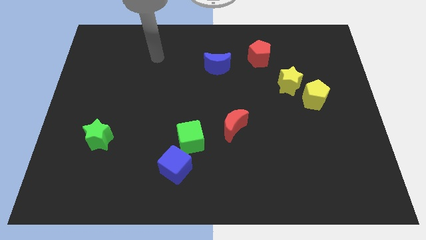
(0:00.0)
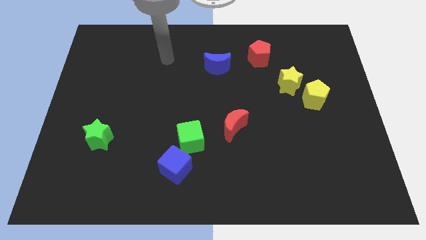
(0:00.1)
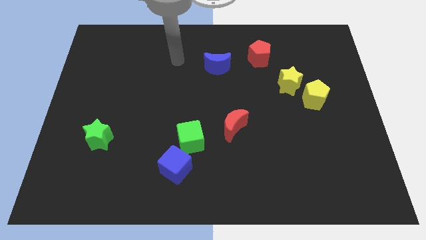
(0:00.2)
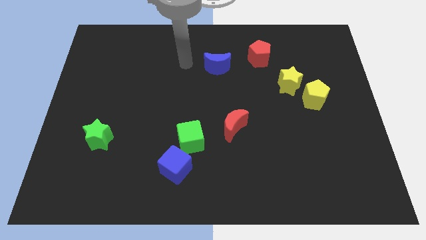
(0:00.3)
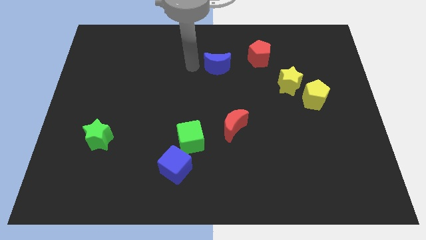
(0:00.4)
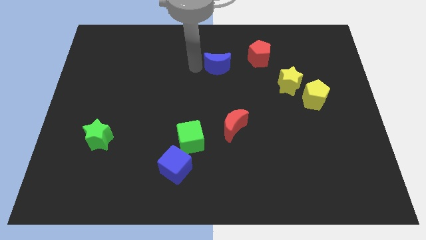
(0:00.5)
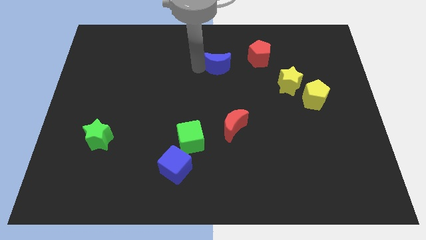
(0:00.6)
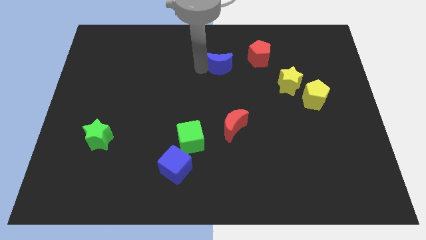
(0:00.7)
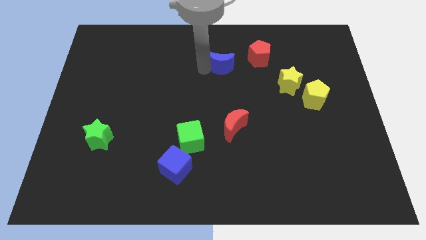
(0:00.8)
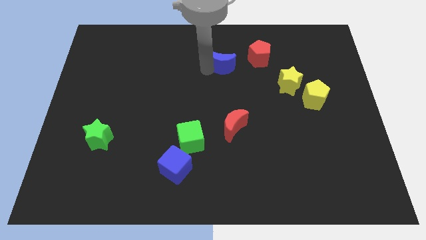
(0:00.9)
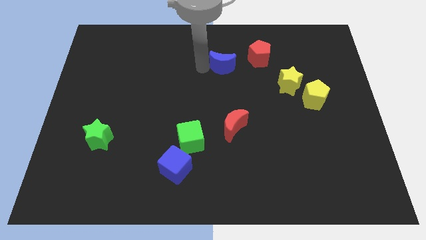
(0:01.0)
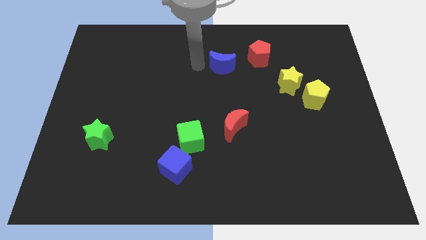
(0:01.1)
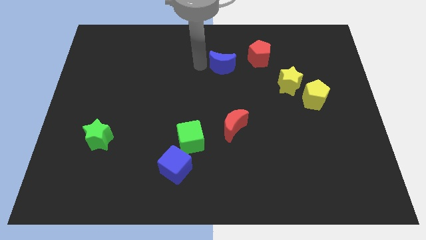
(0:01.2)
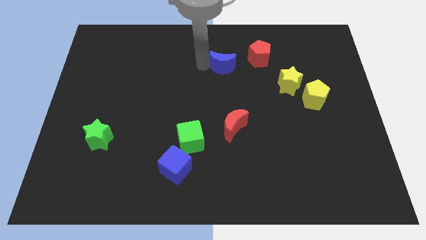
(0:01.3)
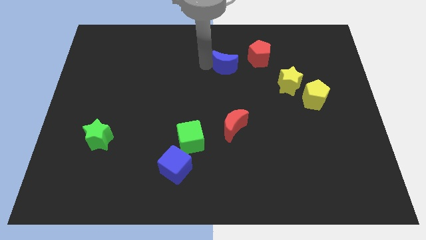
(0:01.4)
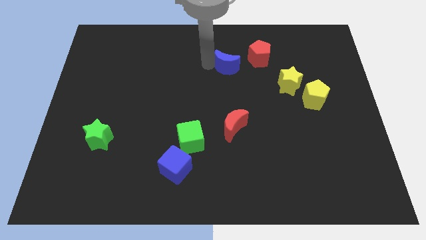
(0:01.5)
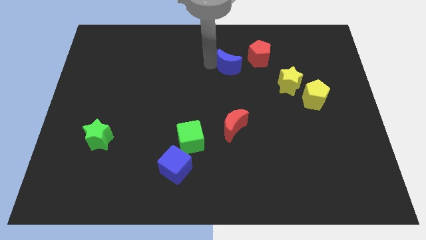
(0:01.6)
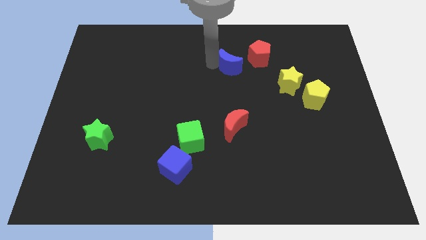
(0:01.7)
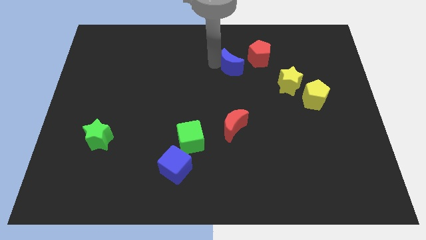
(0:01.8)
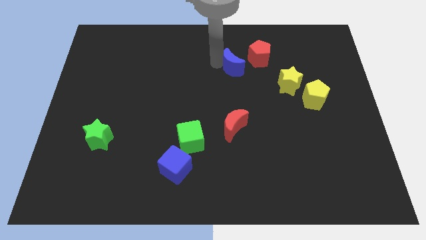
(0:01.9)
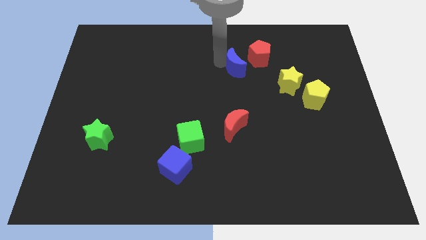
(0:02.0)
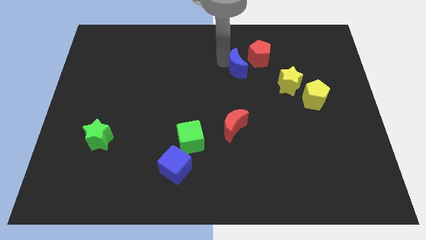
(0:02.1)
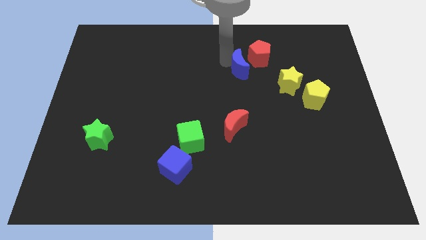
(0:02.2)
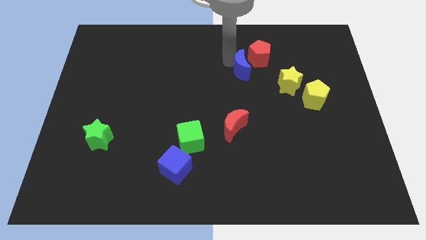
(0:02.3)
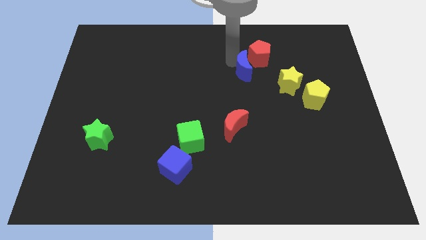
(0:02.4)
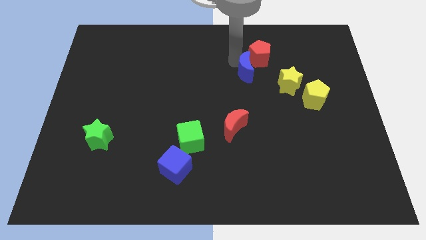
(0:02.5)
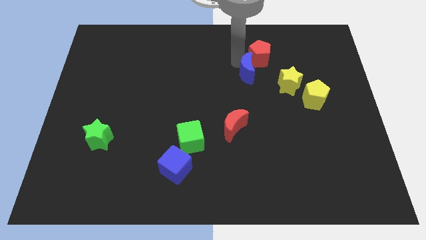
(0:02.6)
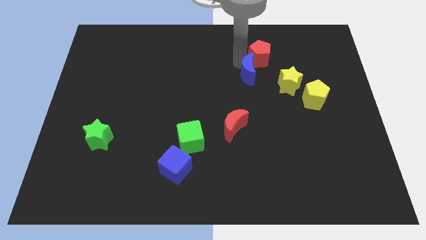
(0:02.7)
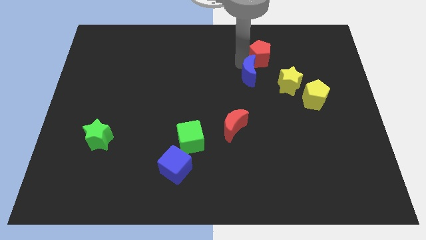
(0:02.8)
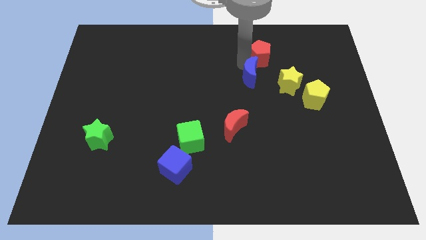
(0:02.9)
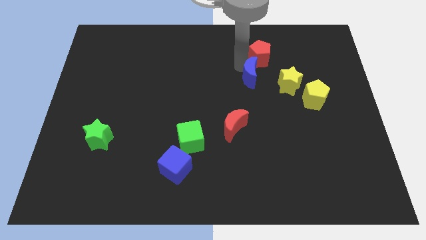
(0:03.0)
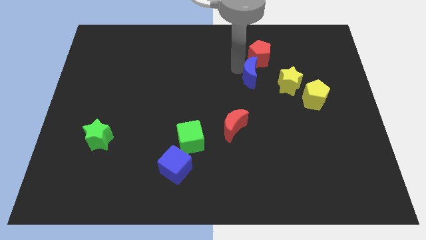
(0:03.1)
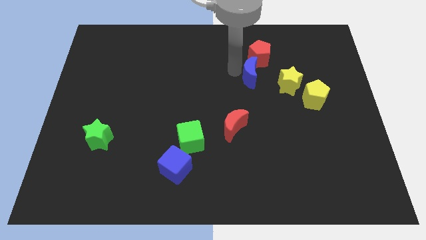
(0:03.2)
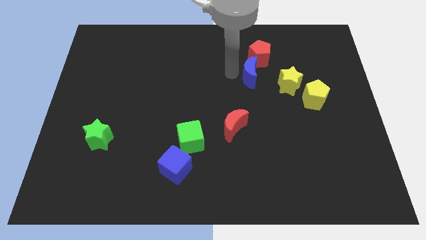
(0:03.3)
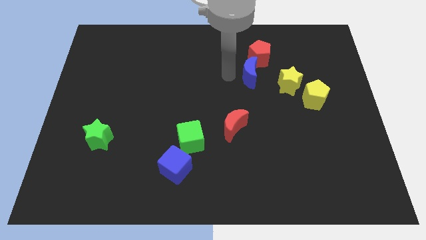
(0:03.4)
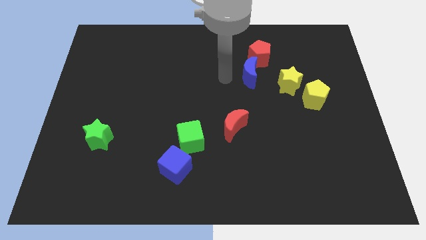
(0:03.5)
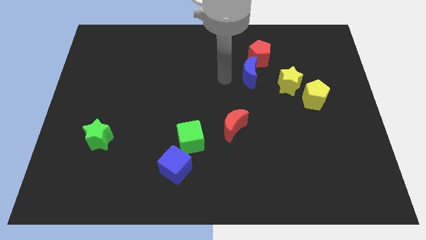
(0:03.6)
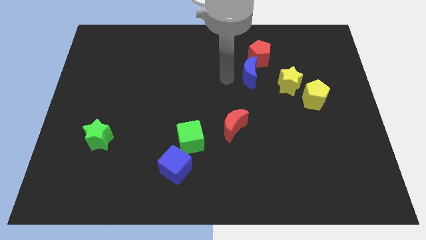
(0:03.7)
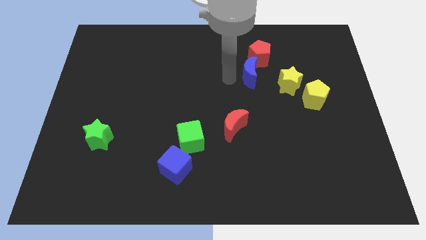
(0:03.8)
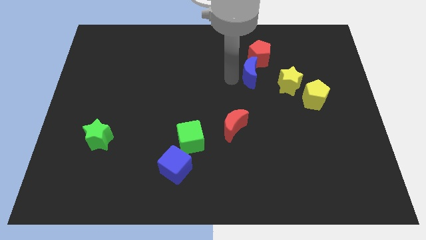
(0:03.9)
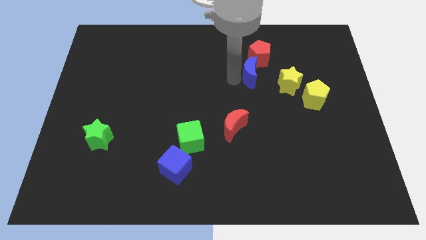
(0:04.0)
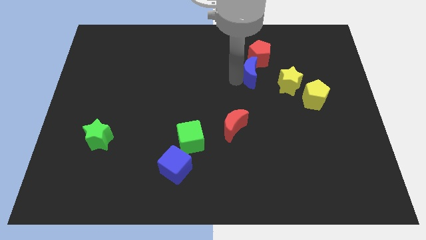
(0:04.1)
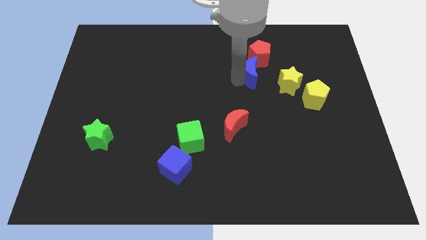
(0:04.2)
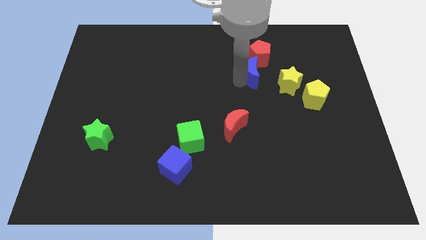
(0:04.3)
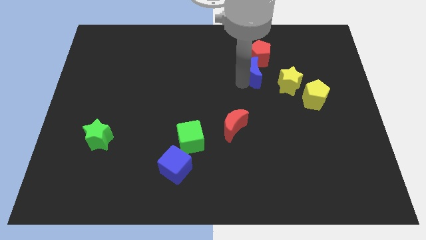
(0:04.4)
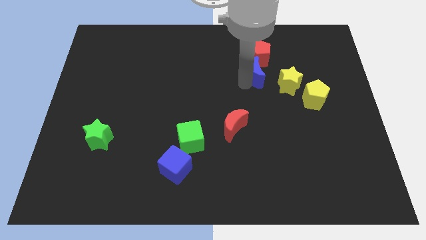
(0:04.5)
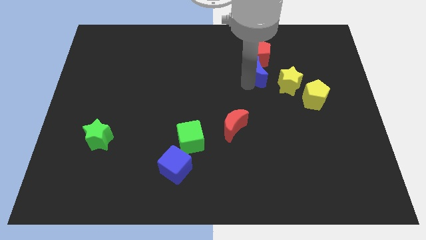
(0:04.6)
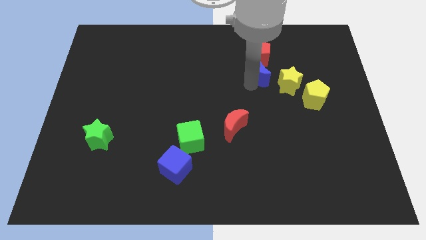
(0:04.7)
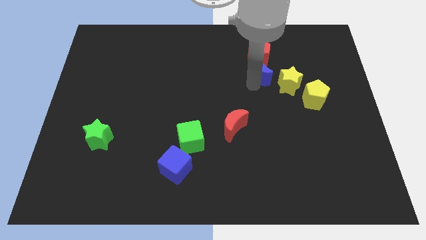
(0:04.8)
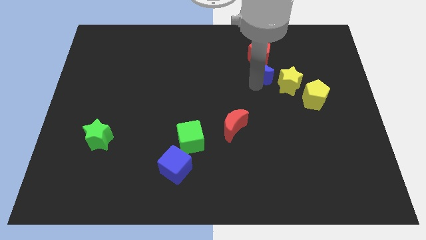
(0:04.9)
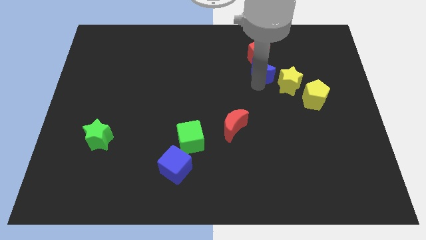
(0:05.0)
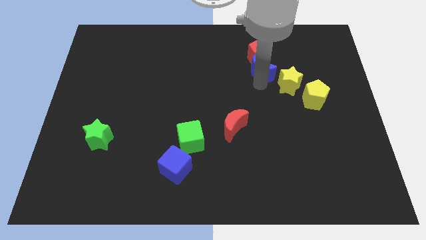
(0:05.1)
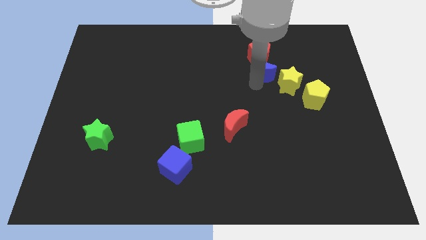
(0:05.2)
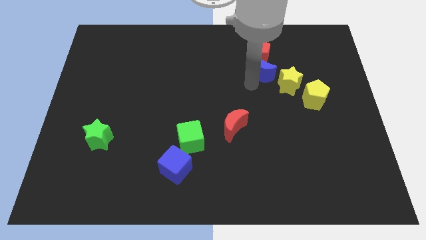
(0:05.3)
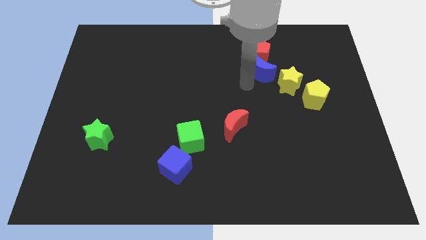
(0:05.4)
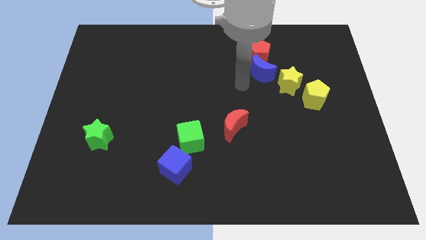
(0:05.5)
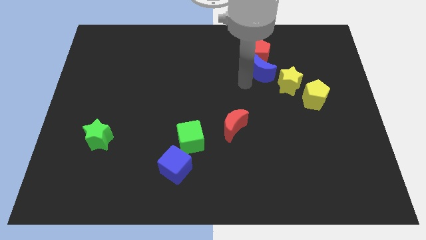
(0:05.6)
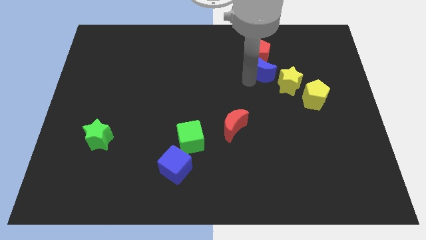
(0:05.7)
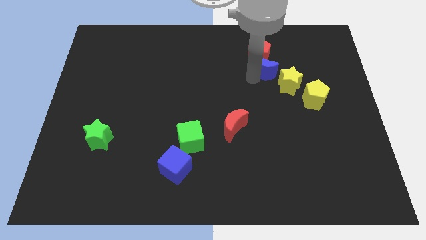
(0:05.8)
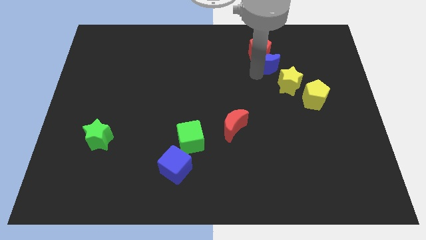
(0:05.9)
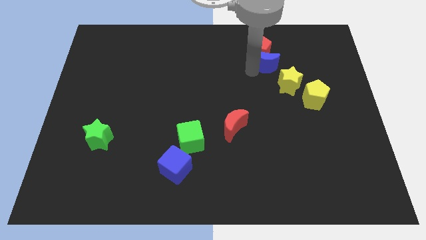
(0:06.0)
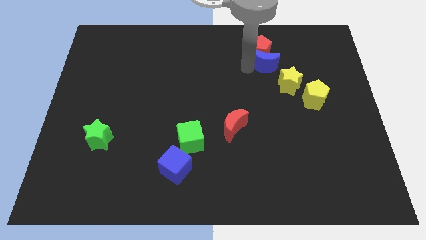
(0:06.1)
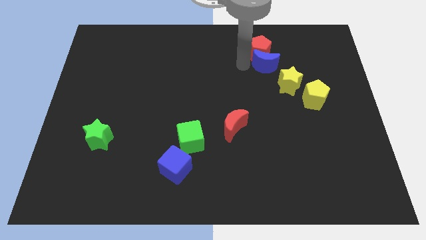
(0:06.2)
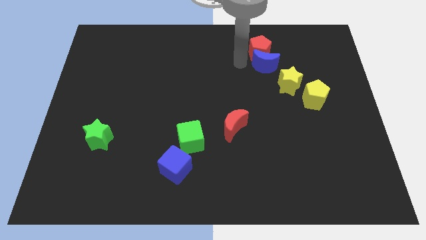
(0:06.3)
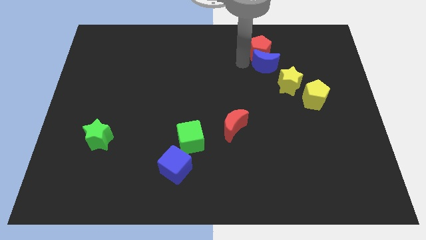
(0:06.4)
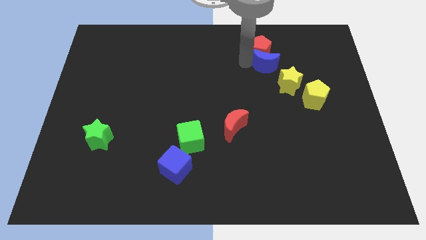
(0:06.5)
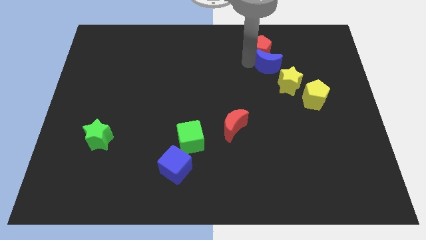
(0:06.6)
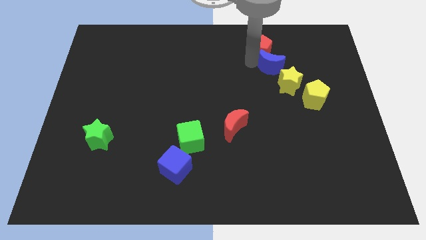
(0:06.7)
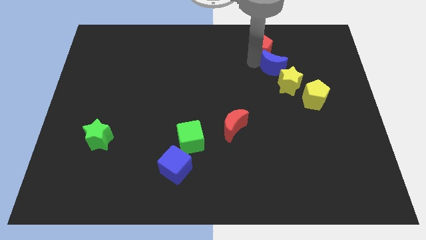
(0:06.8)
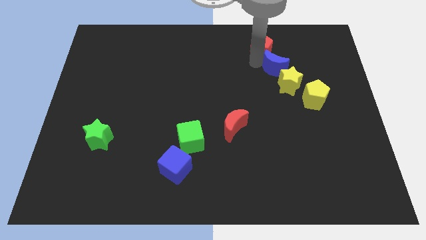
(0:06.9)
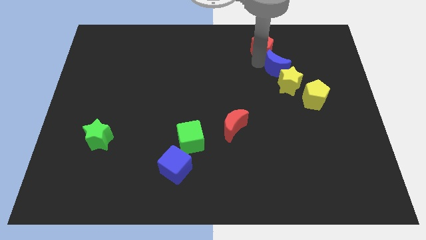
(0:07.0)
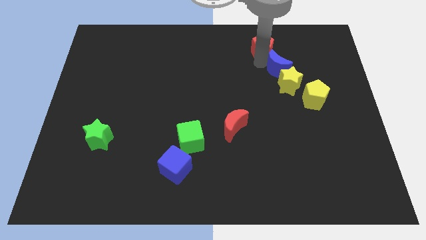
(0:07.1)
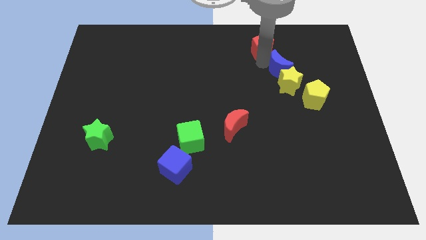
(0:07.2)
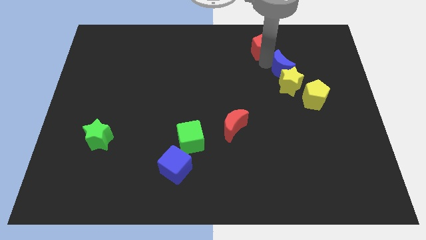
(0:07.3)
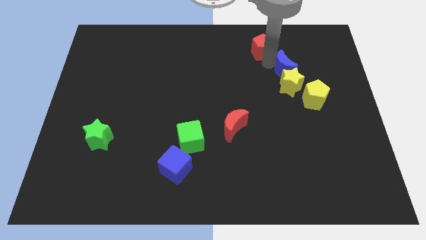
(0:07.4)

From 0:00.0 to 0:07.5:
put the blue moon to the top right side of the yellow star
